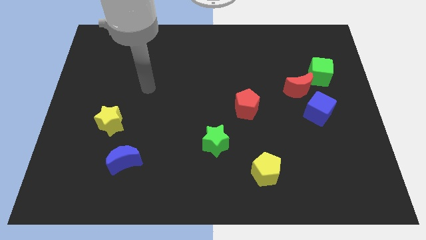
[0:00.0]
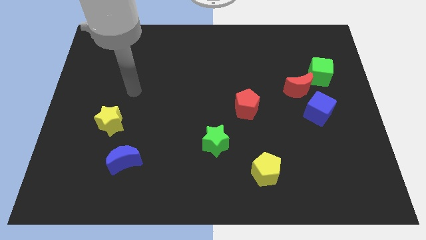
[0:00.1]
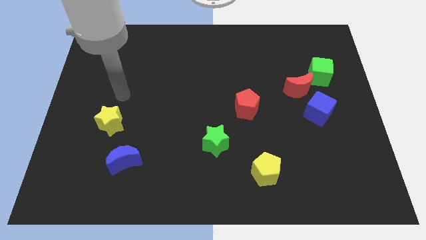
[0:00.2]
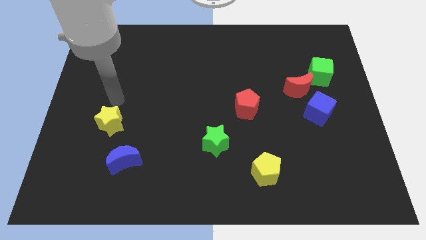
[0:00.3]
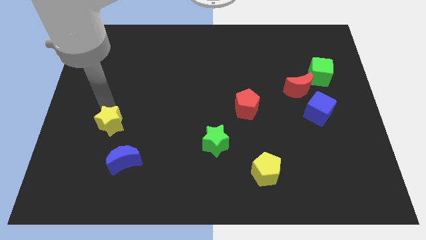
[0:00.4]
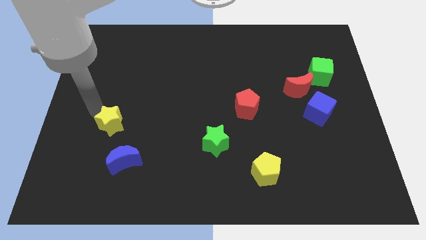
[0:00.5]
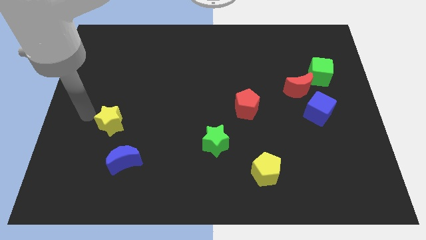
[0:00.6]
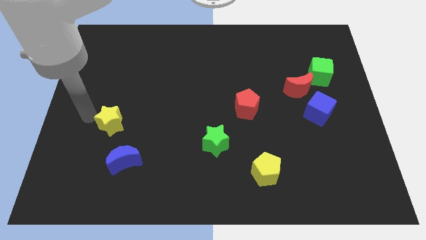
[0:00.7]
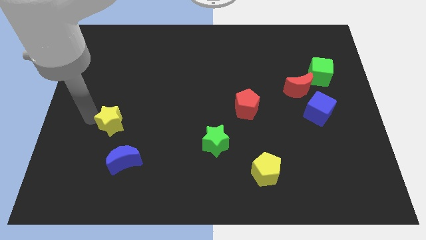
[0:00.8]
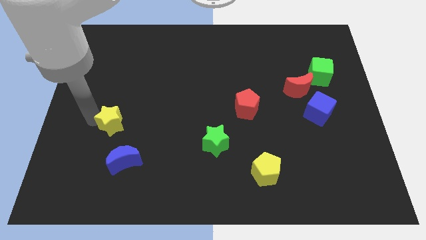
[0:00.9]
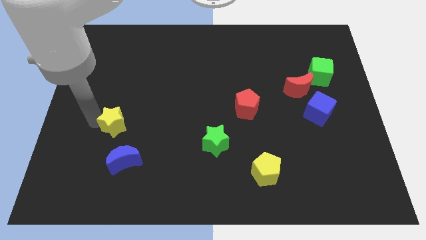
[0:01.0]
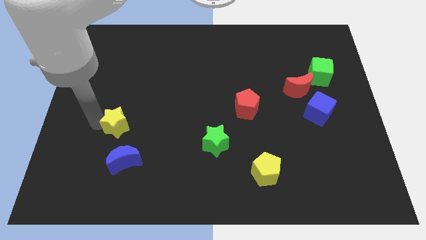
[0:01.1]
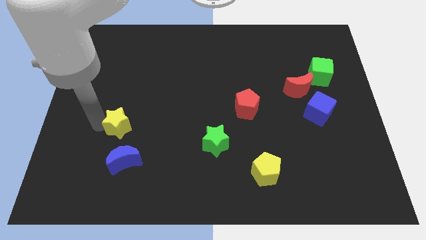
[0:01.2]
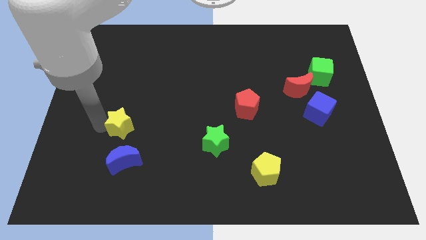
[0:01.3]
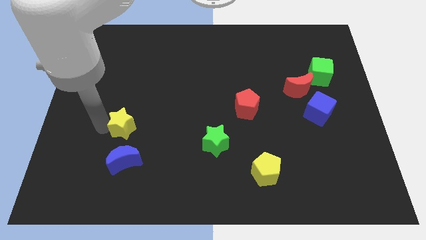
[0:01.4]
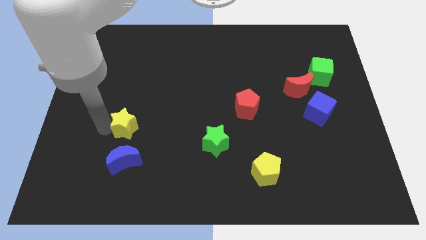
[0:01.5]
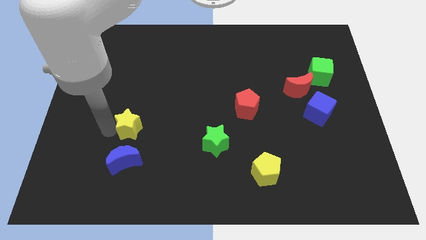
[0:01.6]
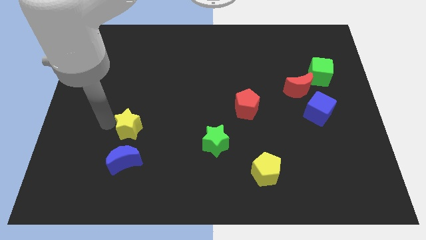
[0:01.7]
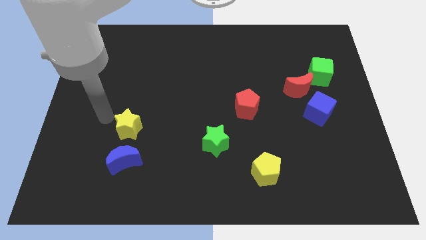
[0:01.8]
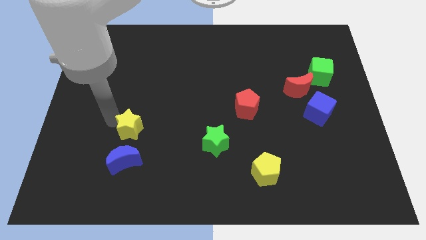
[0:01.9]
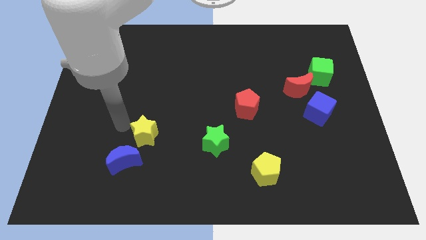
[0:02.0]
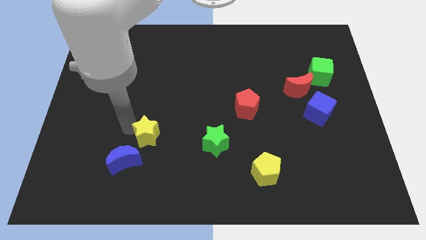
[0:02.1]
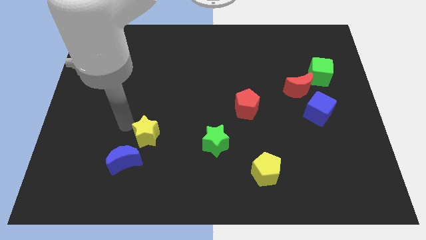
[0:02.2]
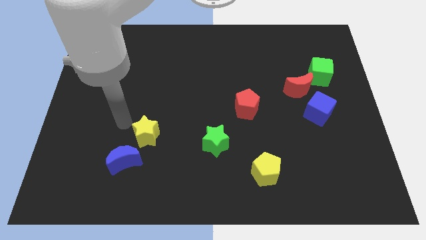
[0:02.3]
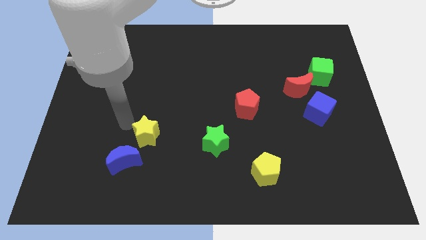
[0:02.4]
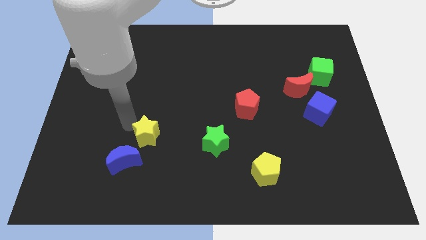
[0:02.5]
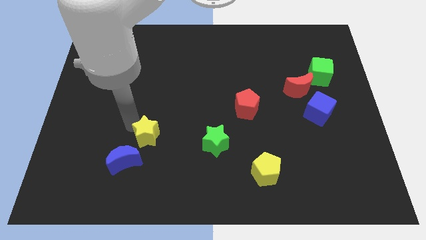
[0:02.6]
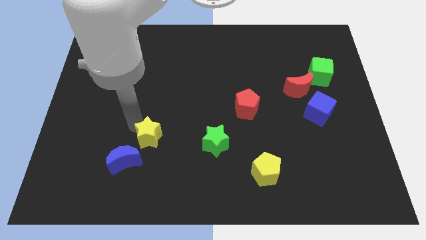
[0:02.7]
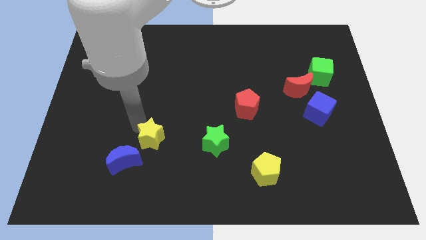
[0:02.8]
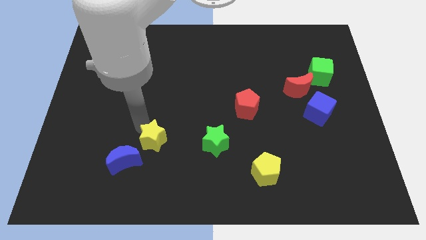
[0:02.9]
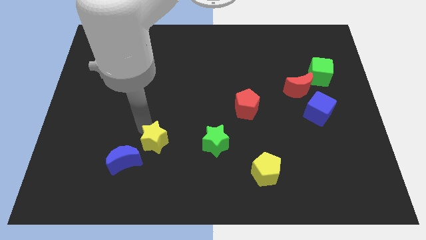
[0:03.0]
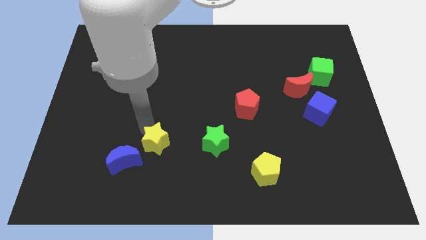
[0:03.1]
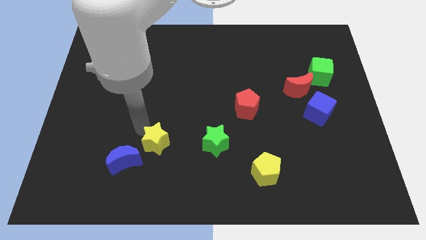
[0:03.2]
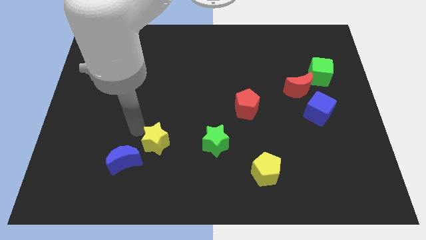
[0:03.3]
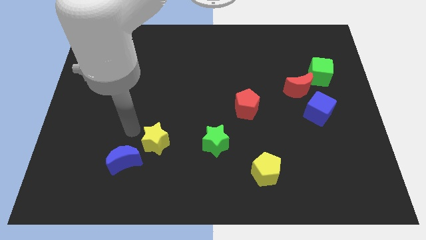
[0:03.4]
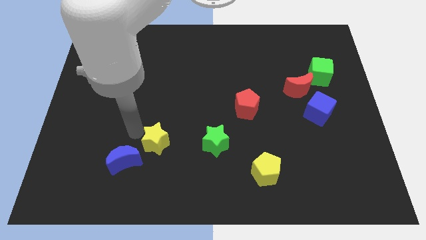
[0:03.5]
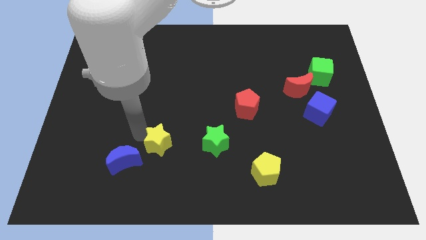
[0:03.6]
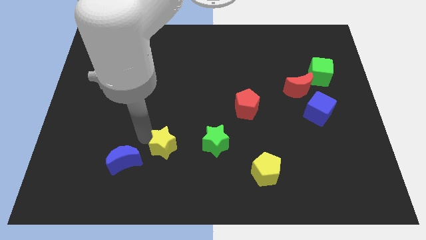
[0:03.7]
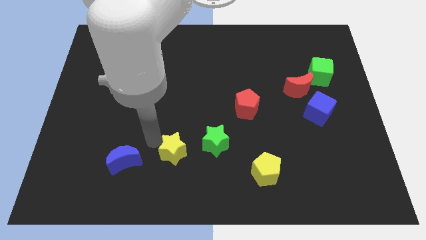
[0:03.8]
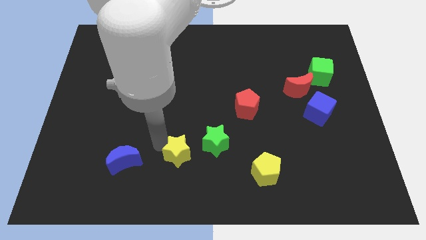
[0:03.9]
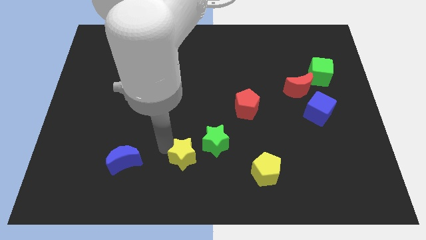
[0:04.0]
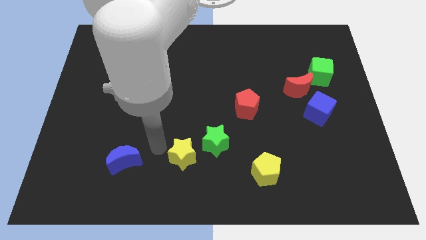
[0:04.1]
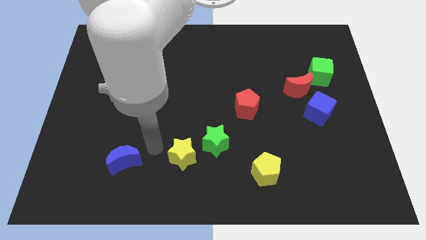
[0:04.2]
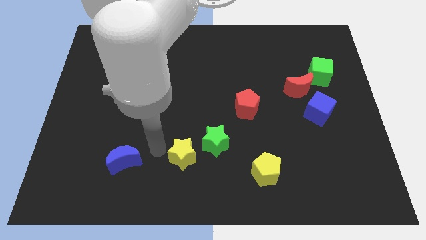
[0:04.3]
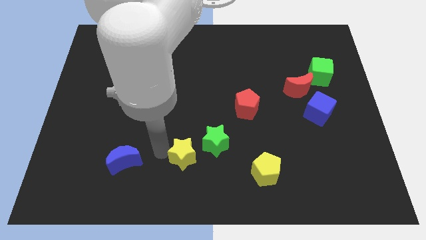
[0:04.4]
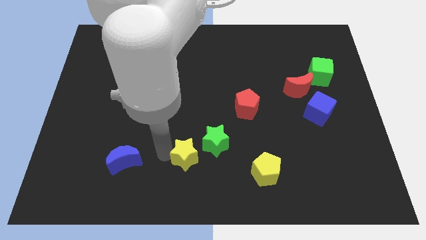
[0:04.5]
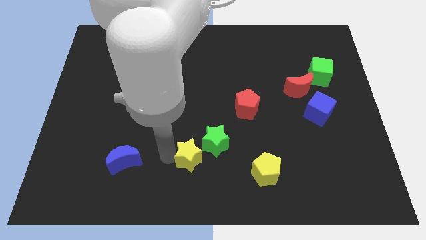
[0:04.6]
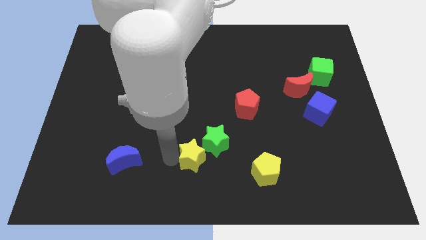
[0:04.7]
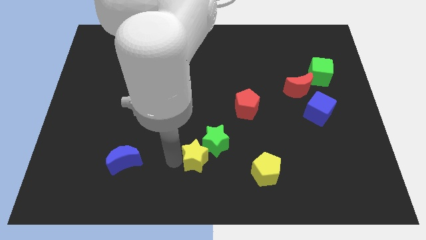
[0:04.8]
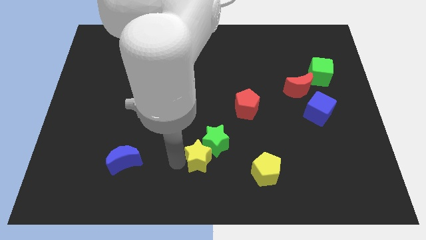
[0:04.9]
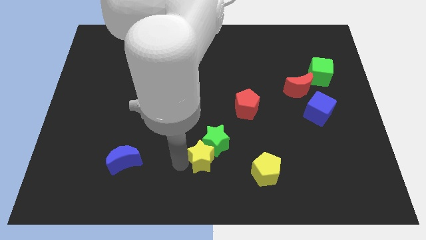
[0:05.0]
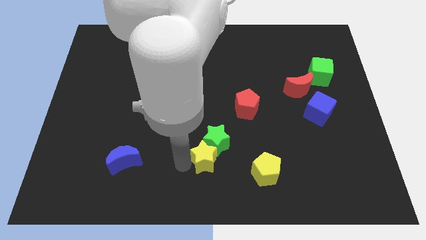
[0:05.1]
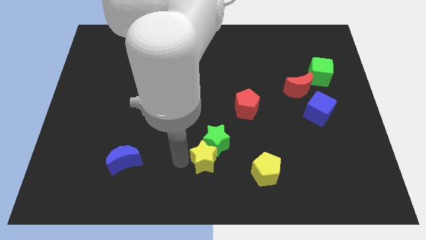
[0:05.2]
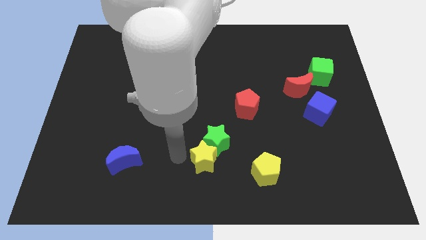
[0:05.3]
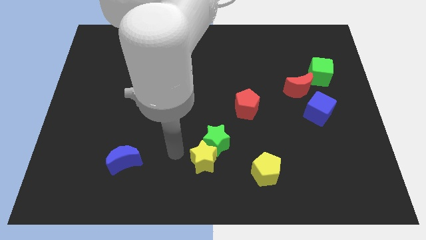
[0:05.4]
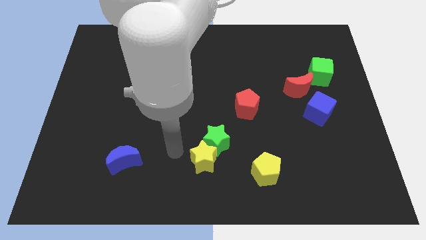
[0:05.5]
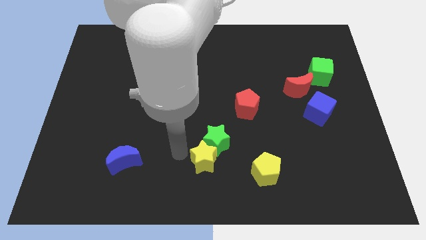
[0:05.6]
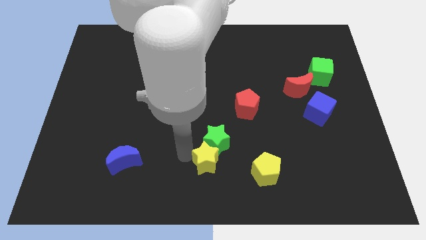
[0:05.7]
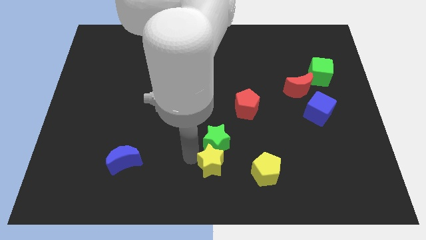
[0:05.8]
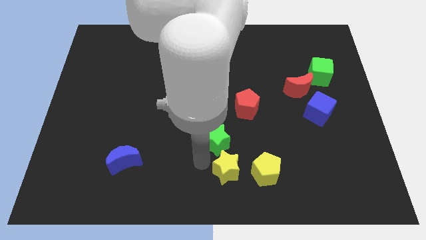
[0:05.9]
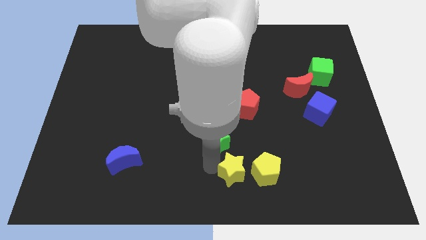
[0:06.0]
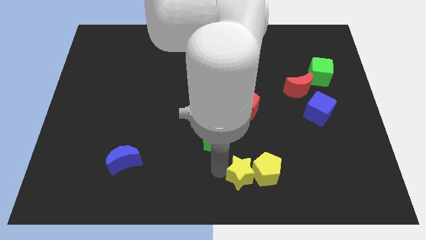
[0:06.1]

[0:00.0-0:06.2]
move the yellow star to the yellow pentagon

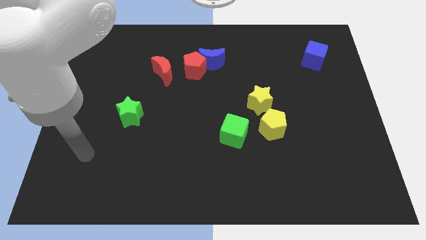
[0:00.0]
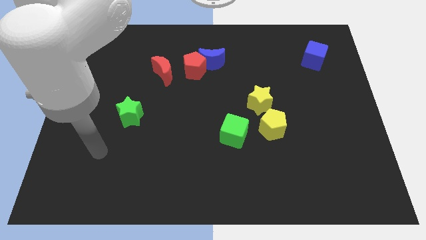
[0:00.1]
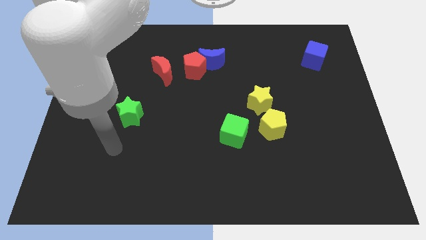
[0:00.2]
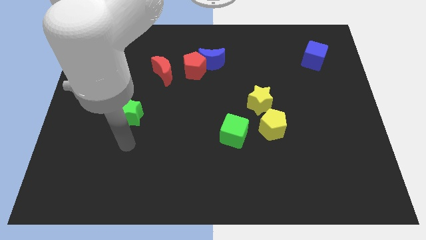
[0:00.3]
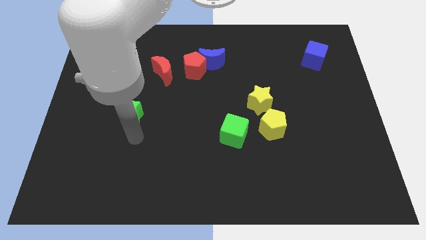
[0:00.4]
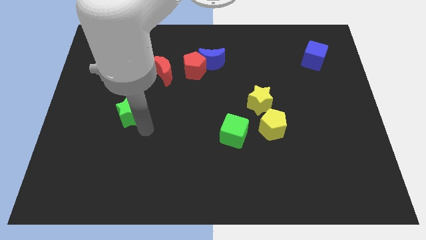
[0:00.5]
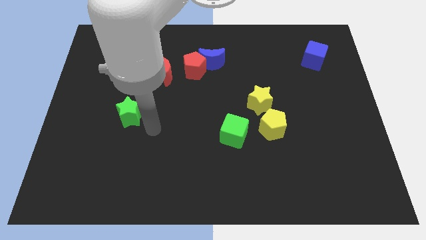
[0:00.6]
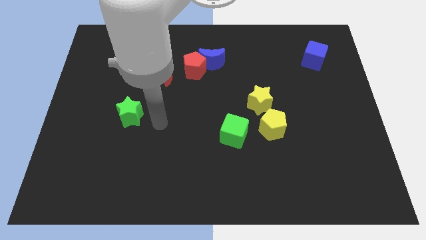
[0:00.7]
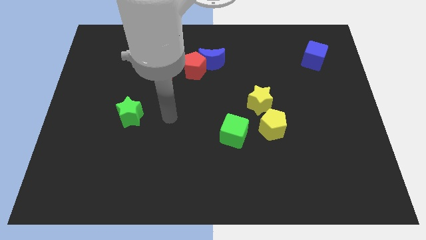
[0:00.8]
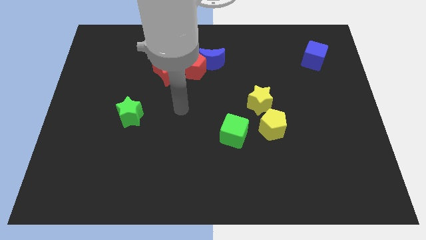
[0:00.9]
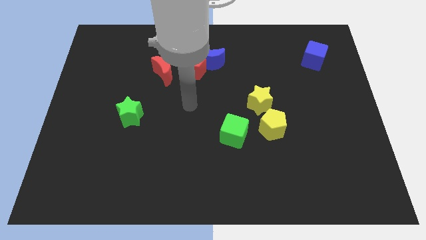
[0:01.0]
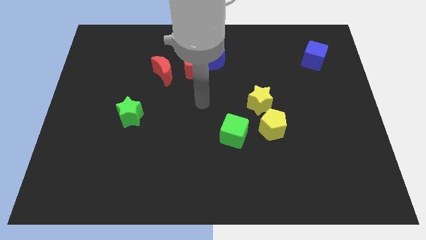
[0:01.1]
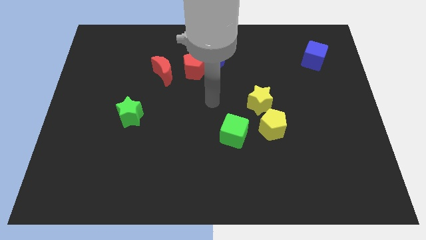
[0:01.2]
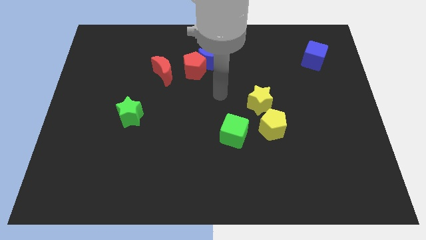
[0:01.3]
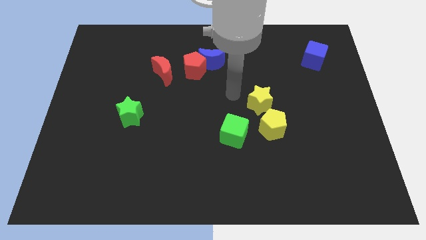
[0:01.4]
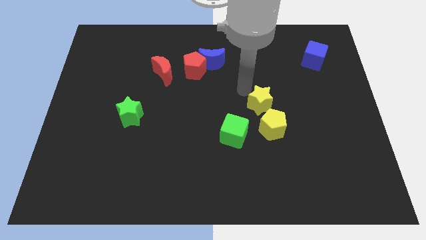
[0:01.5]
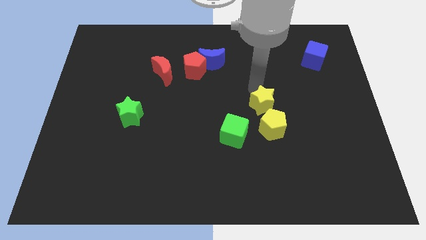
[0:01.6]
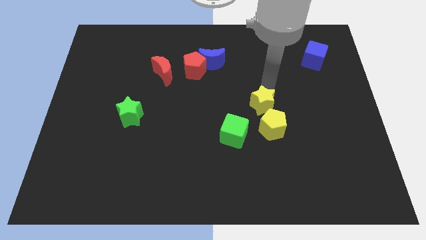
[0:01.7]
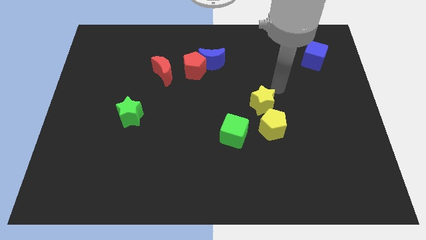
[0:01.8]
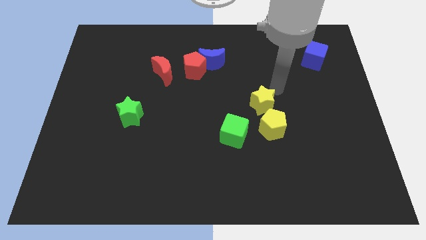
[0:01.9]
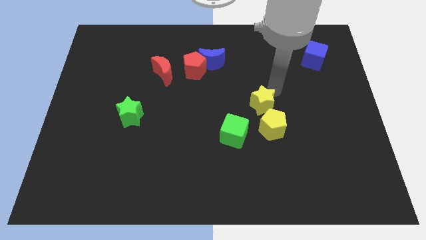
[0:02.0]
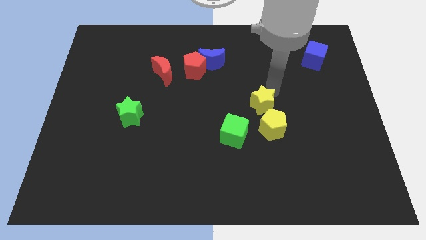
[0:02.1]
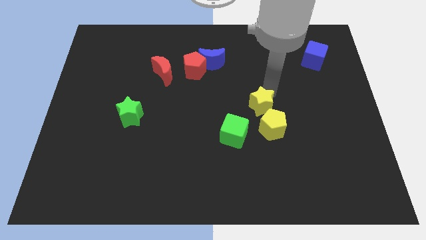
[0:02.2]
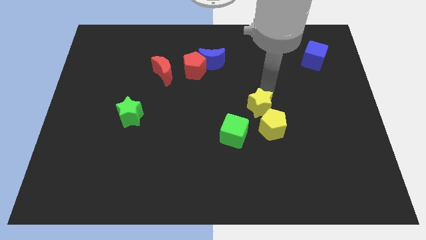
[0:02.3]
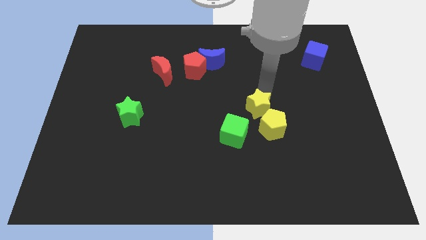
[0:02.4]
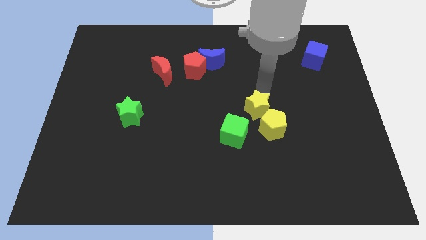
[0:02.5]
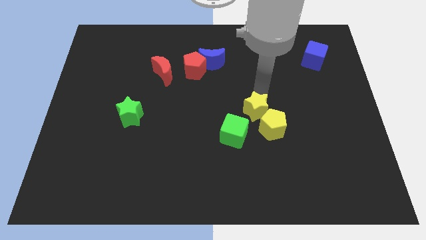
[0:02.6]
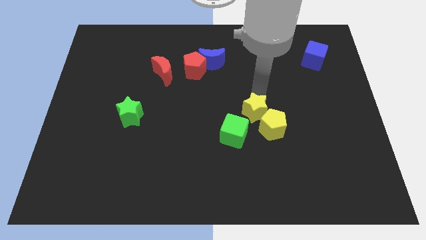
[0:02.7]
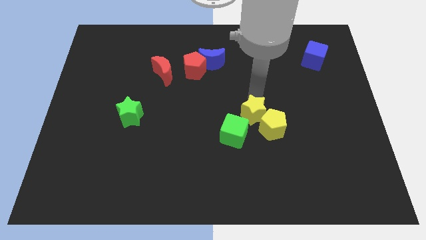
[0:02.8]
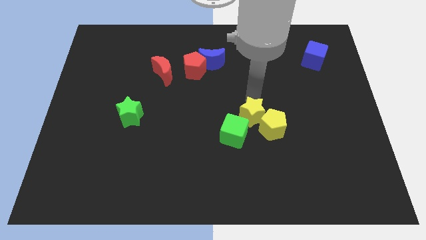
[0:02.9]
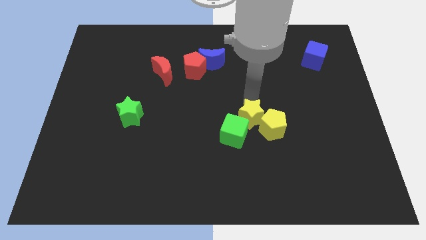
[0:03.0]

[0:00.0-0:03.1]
push the yellow star next to the green cube
